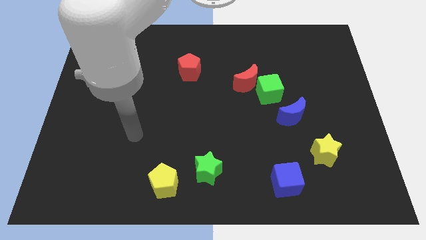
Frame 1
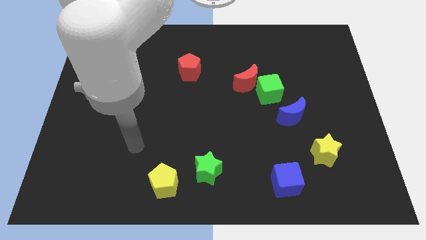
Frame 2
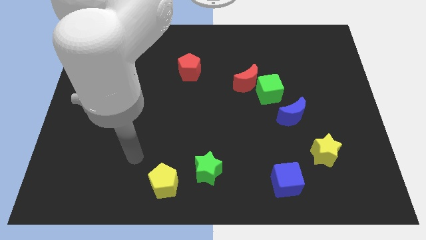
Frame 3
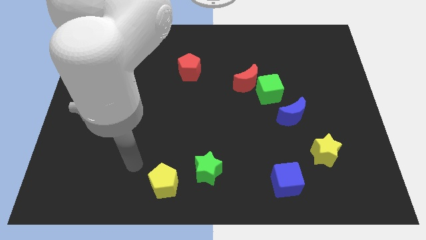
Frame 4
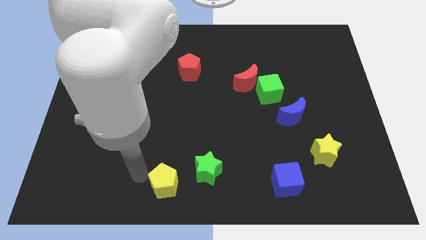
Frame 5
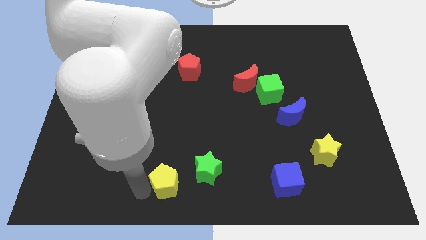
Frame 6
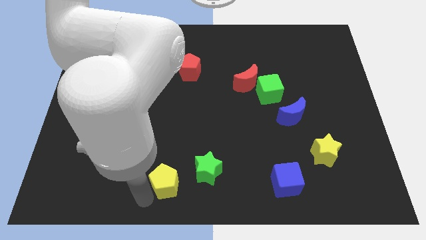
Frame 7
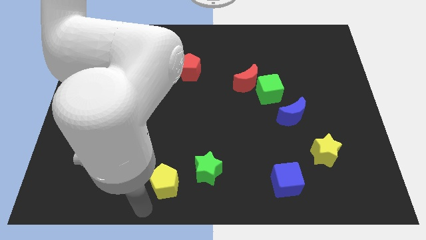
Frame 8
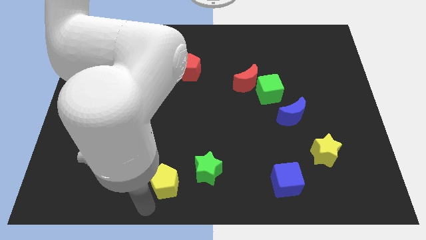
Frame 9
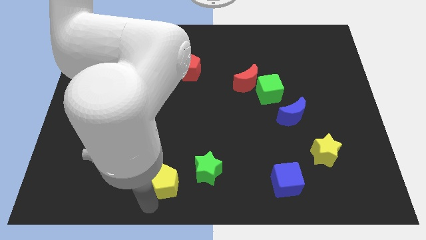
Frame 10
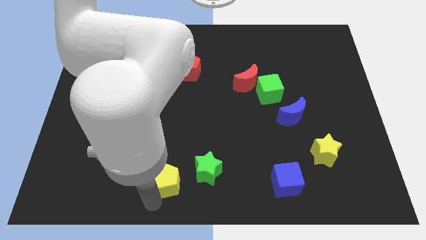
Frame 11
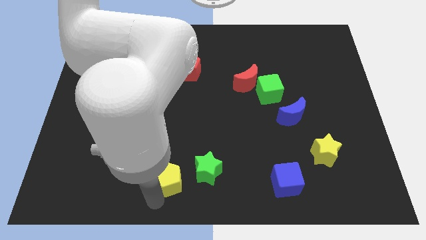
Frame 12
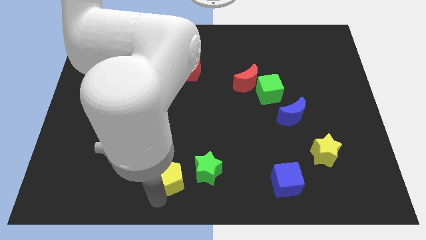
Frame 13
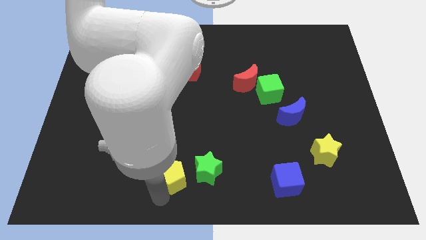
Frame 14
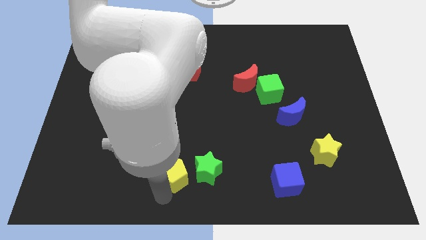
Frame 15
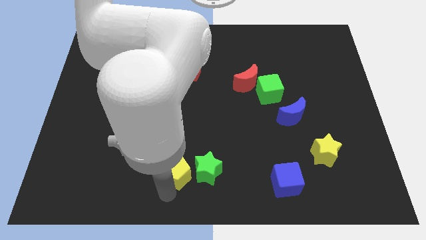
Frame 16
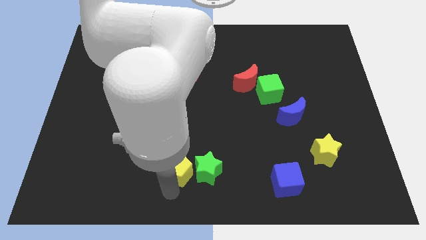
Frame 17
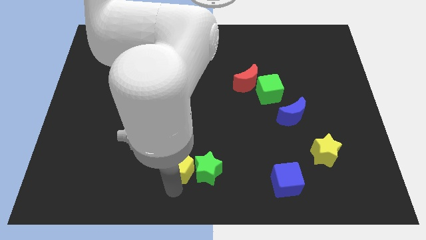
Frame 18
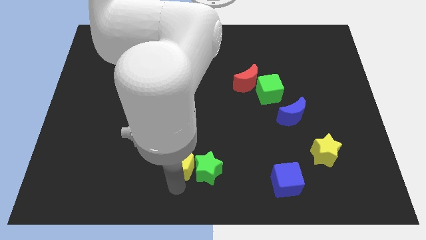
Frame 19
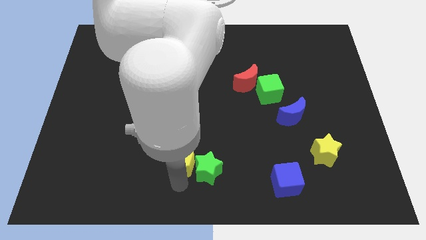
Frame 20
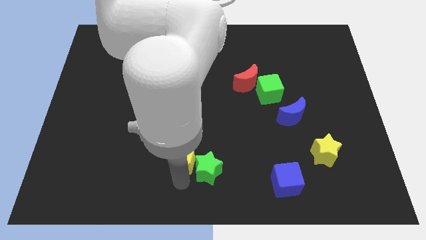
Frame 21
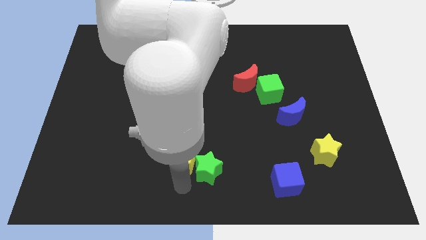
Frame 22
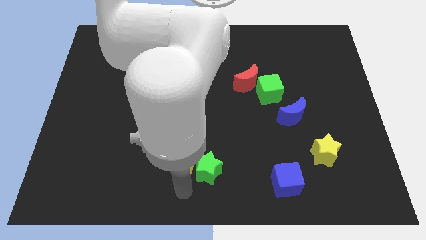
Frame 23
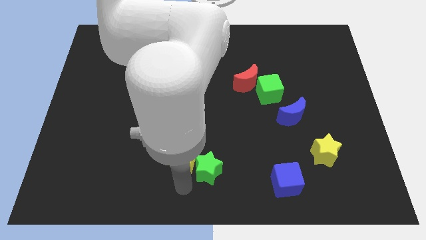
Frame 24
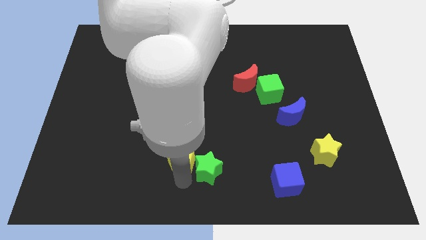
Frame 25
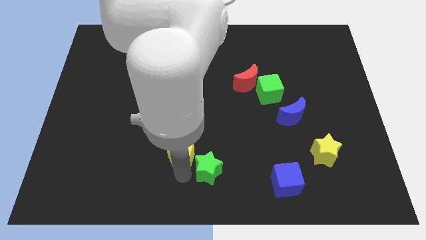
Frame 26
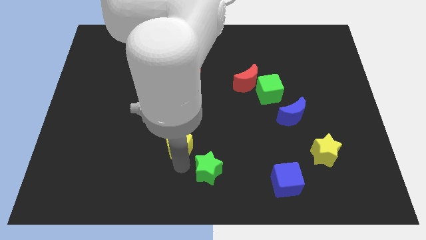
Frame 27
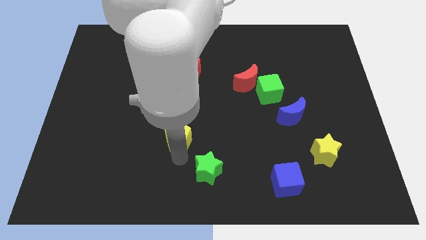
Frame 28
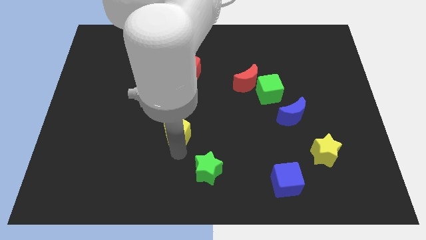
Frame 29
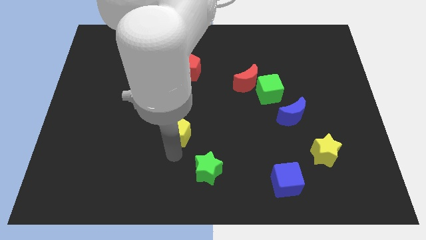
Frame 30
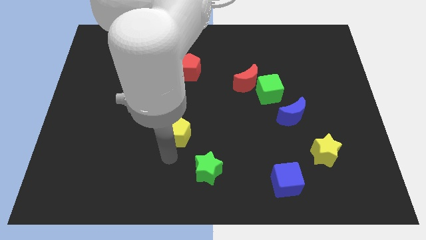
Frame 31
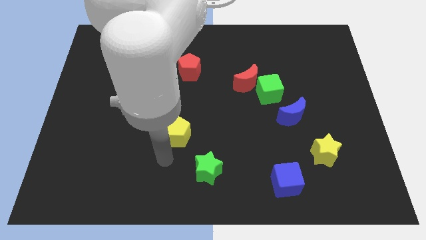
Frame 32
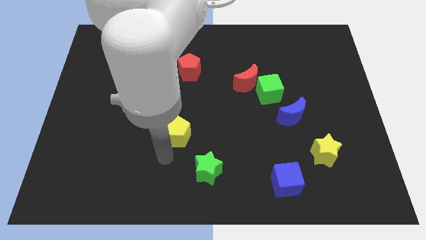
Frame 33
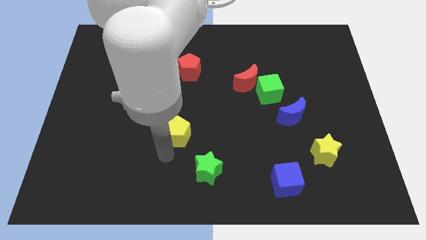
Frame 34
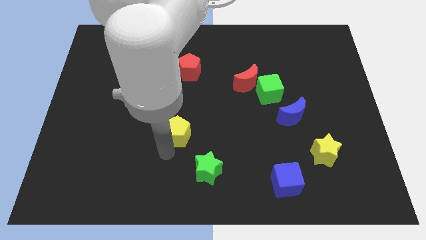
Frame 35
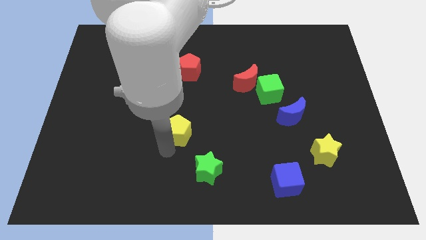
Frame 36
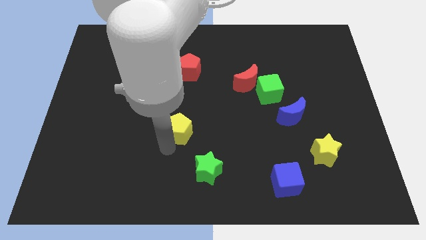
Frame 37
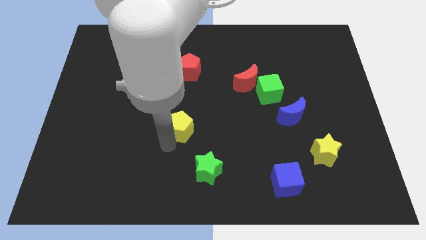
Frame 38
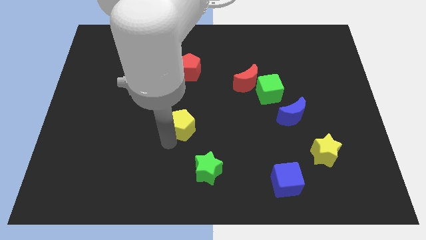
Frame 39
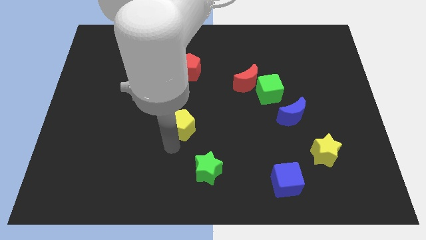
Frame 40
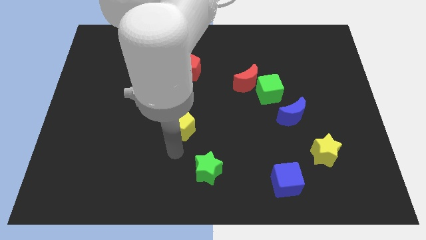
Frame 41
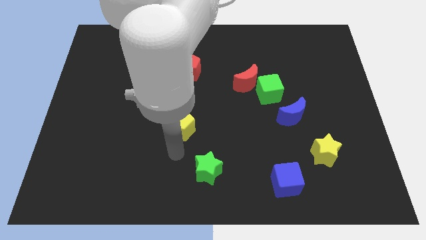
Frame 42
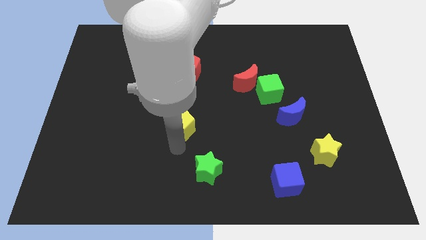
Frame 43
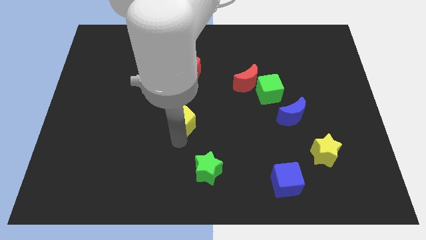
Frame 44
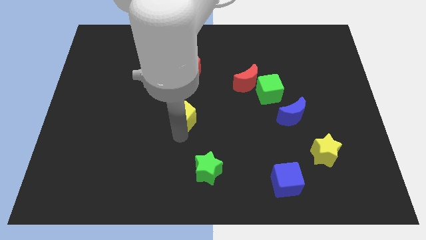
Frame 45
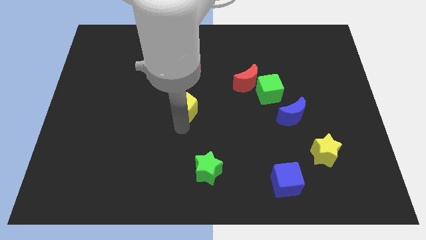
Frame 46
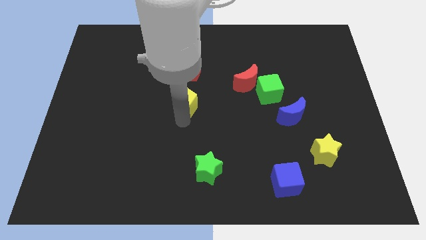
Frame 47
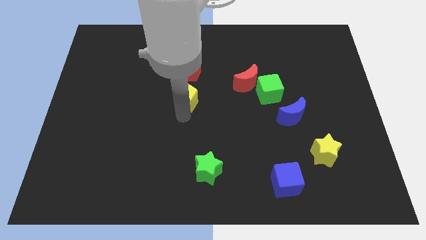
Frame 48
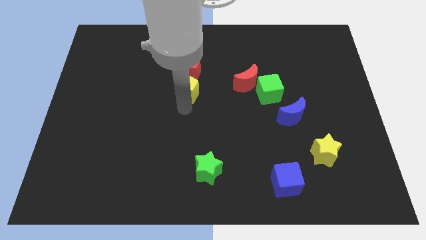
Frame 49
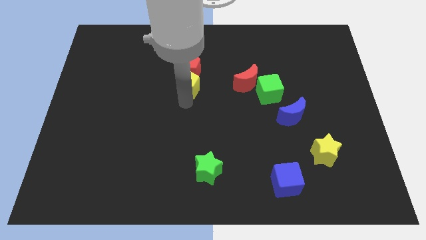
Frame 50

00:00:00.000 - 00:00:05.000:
move the yellow pentagon towards the red pentagon

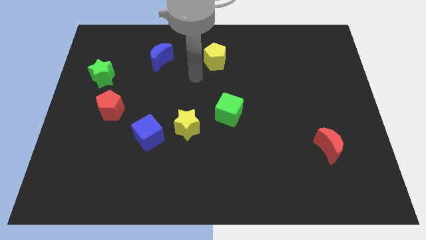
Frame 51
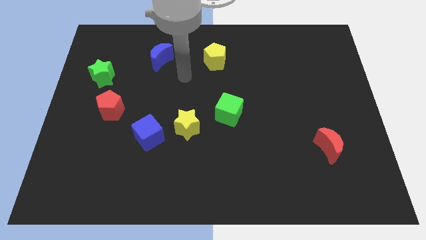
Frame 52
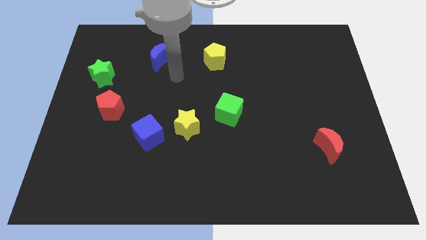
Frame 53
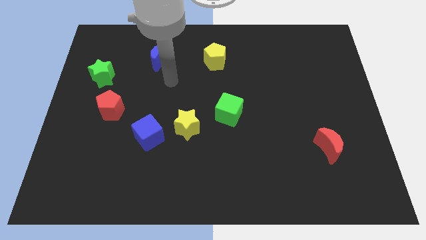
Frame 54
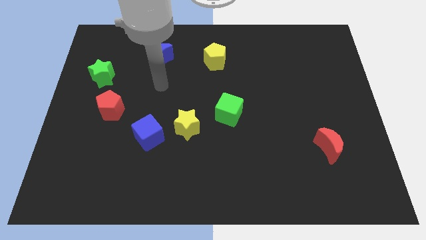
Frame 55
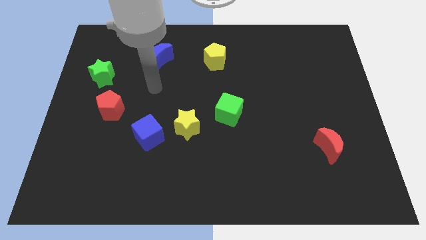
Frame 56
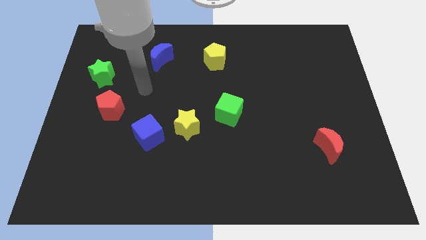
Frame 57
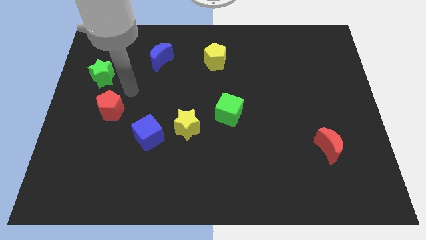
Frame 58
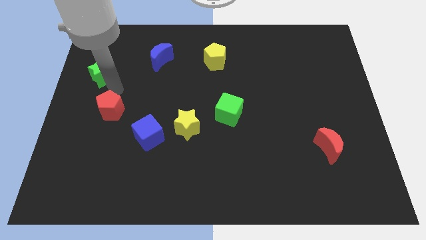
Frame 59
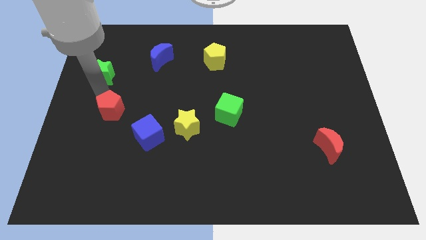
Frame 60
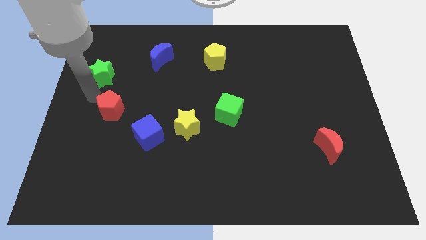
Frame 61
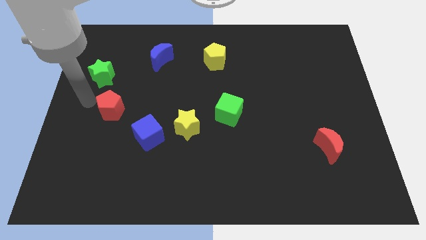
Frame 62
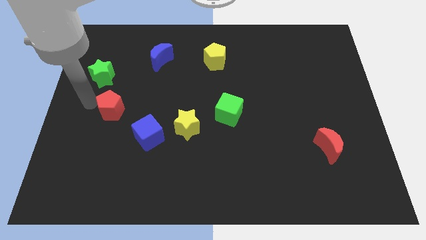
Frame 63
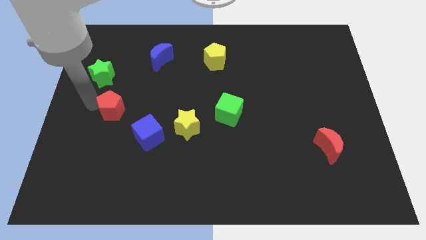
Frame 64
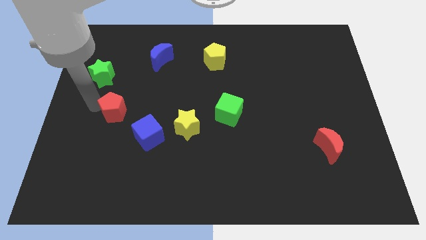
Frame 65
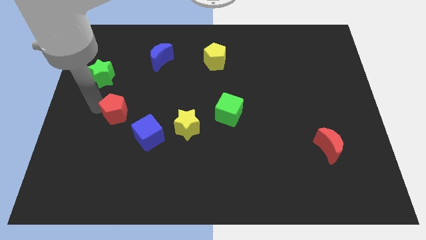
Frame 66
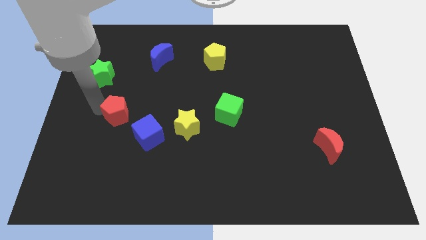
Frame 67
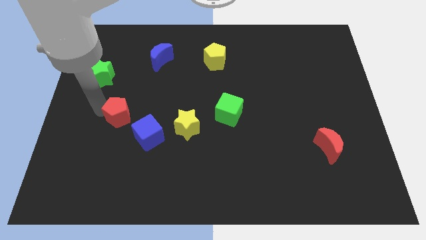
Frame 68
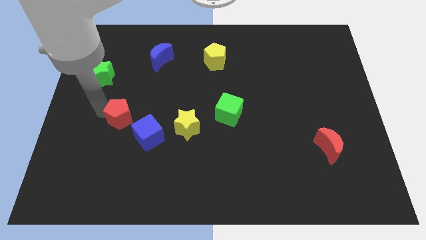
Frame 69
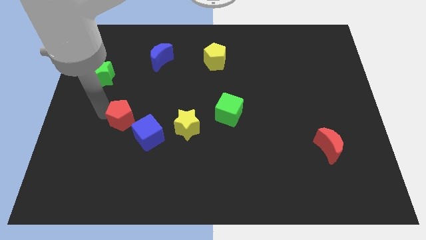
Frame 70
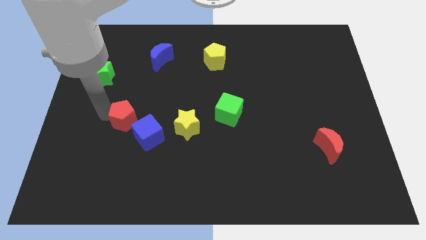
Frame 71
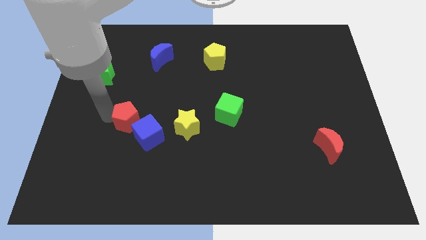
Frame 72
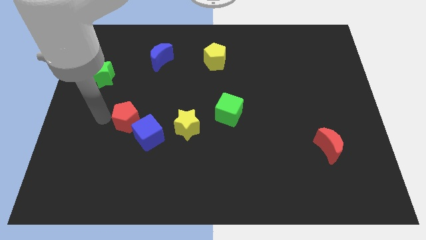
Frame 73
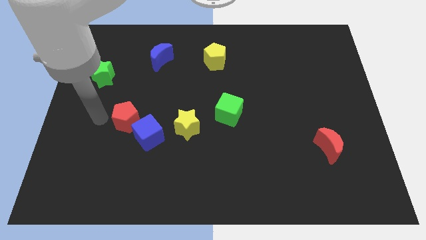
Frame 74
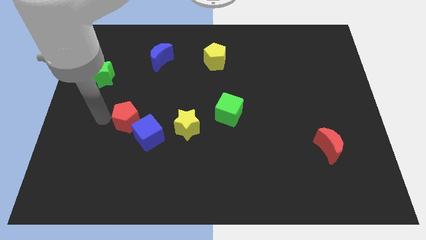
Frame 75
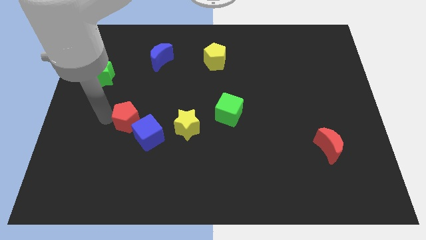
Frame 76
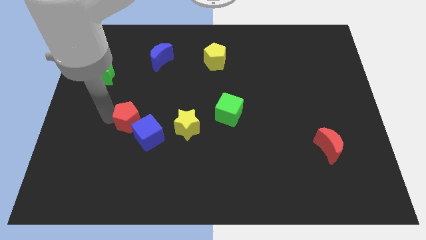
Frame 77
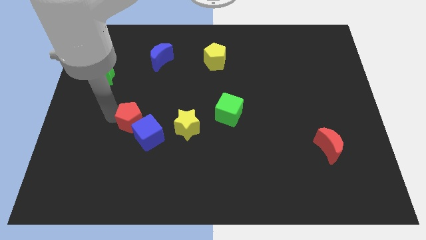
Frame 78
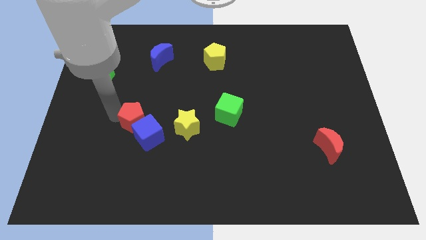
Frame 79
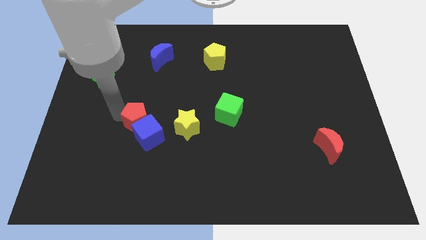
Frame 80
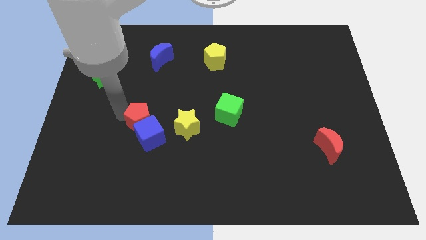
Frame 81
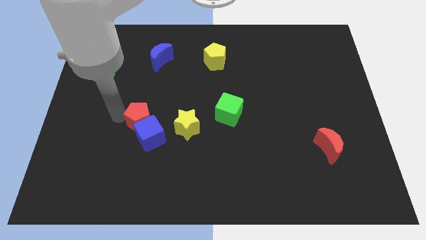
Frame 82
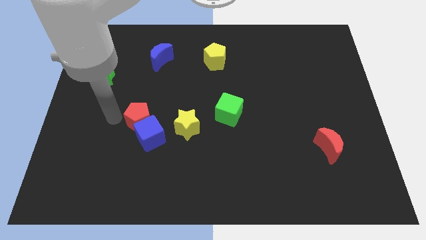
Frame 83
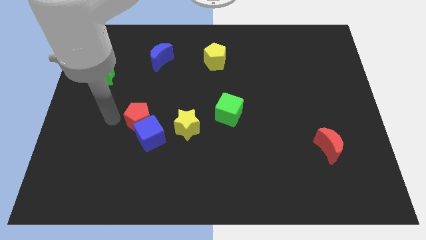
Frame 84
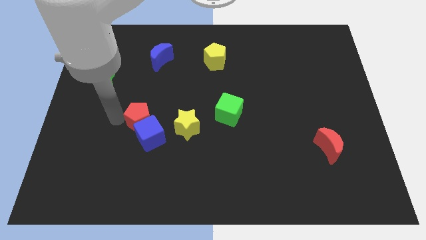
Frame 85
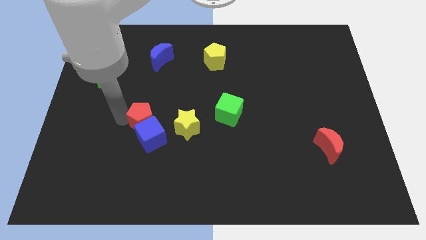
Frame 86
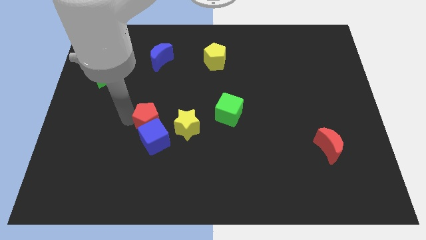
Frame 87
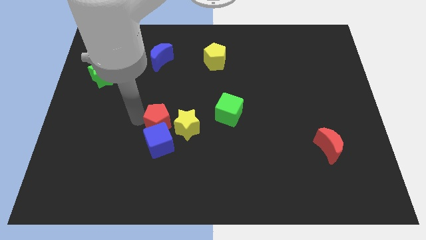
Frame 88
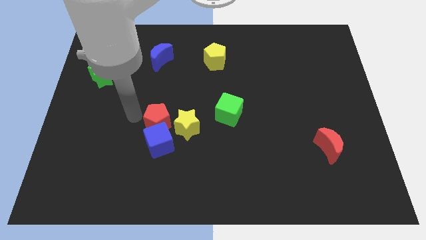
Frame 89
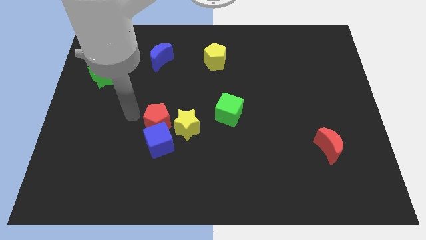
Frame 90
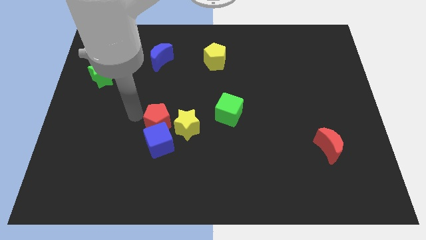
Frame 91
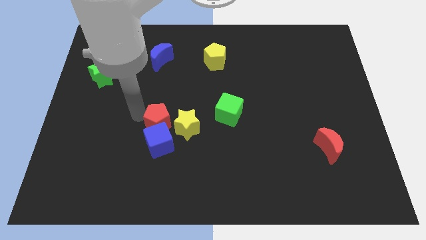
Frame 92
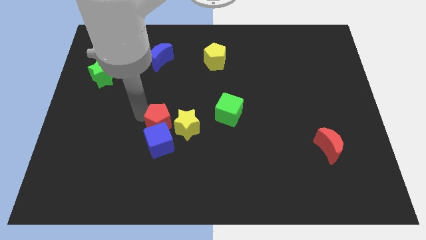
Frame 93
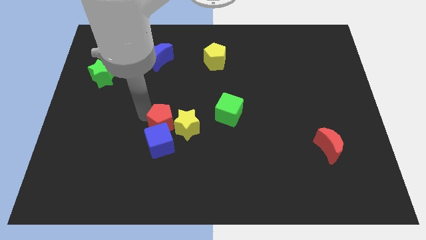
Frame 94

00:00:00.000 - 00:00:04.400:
slide the red pentagon next to the yellow star
